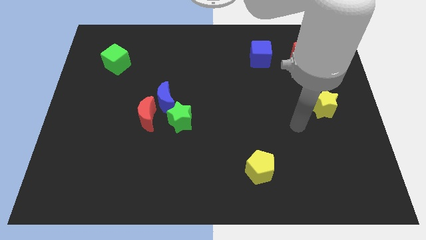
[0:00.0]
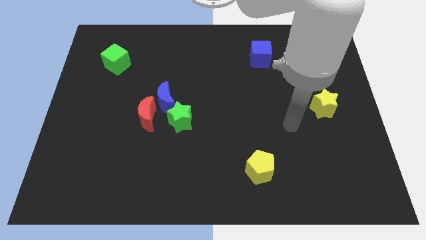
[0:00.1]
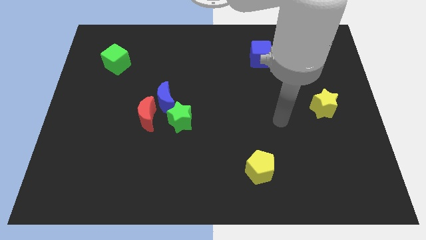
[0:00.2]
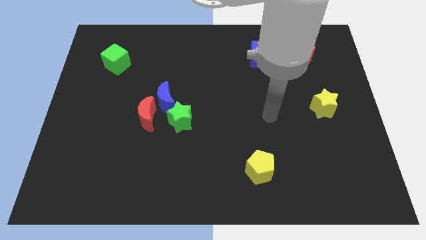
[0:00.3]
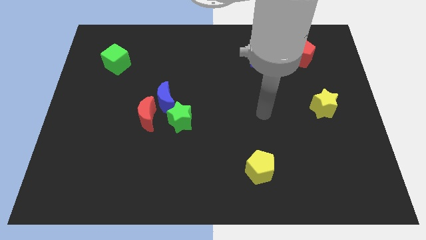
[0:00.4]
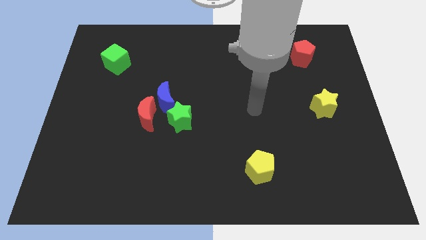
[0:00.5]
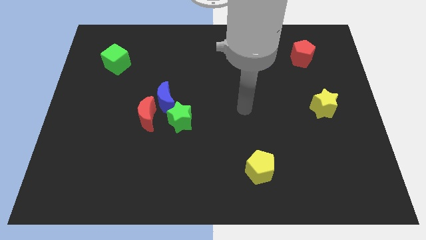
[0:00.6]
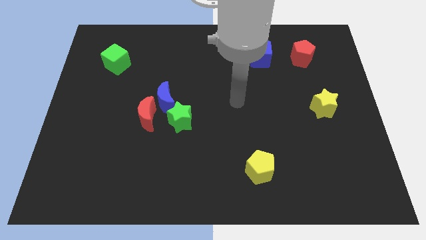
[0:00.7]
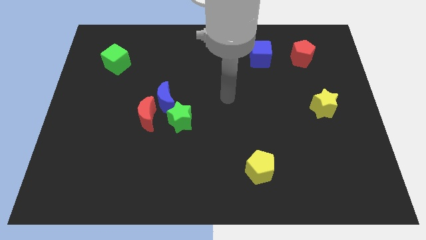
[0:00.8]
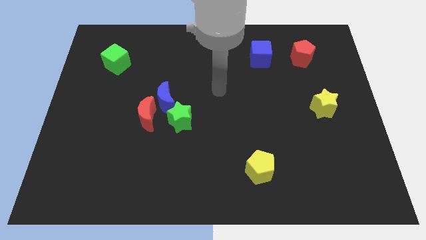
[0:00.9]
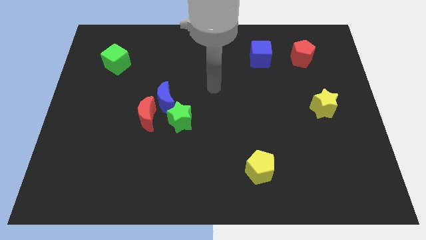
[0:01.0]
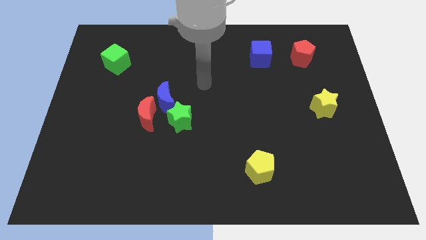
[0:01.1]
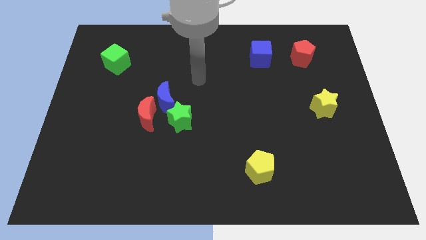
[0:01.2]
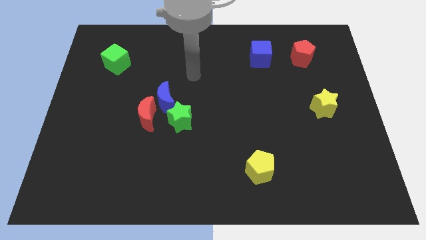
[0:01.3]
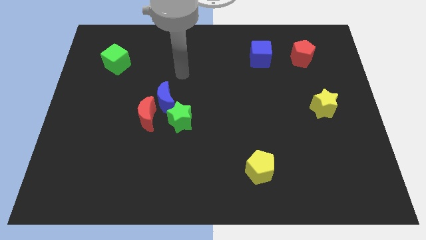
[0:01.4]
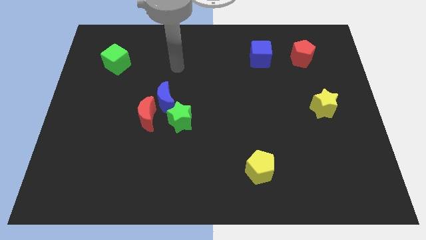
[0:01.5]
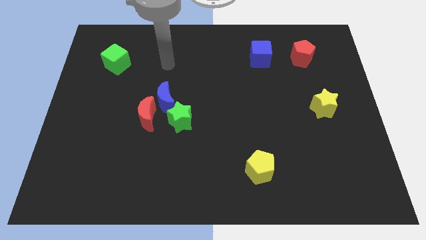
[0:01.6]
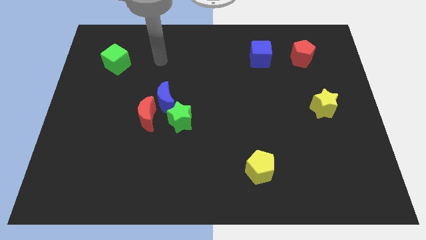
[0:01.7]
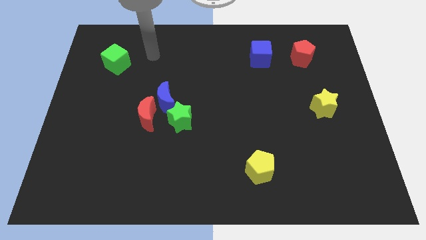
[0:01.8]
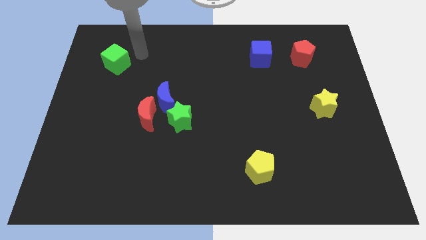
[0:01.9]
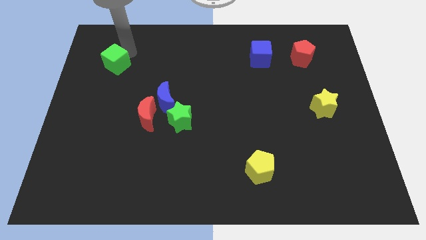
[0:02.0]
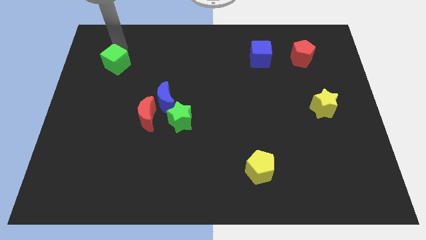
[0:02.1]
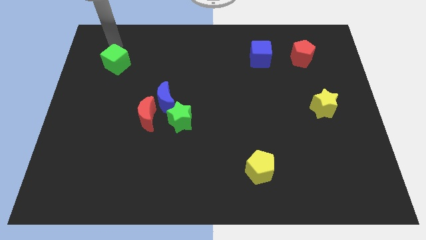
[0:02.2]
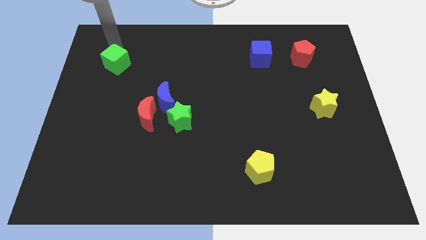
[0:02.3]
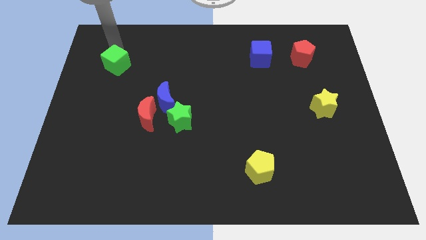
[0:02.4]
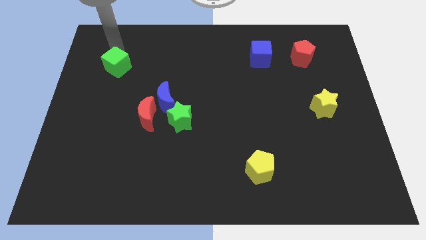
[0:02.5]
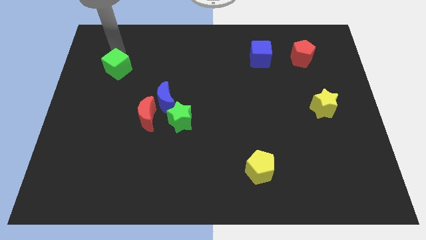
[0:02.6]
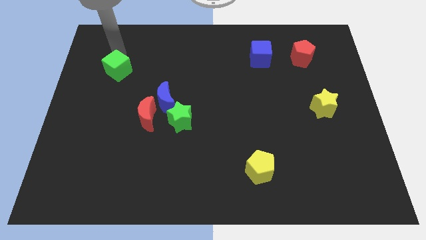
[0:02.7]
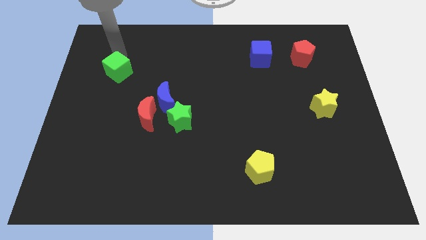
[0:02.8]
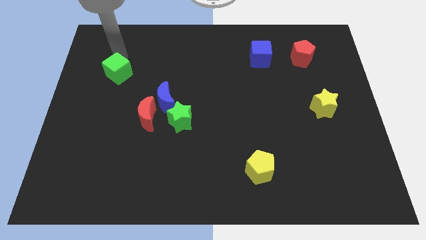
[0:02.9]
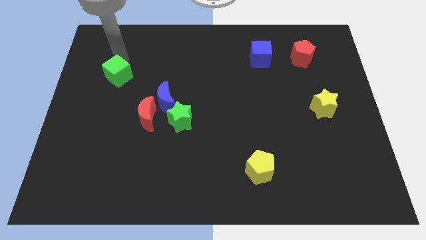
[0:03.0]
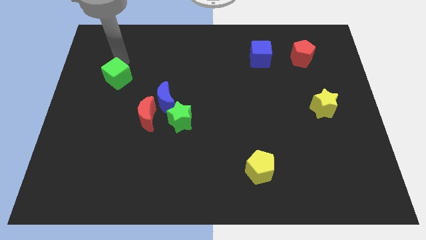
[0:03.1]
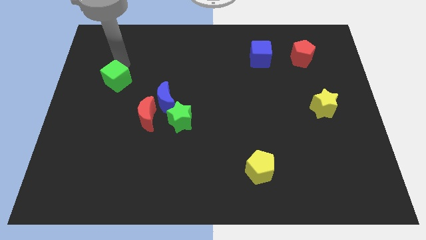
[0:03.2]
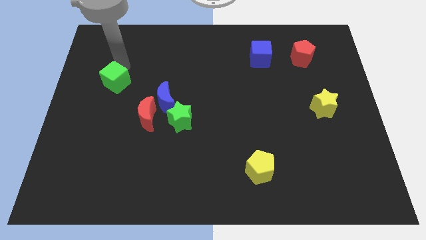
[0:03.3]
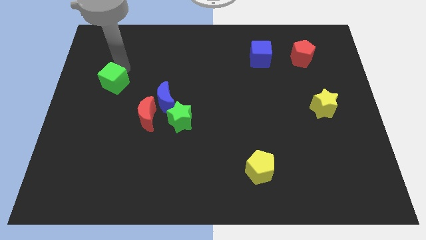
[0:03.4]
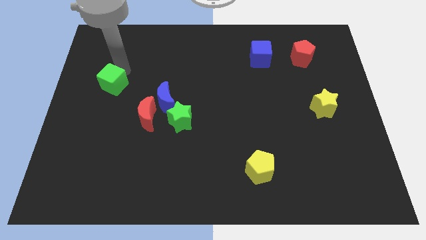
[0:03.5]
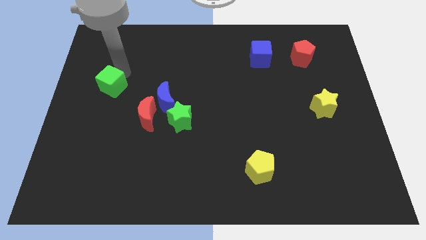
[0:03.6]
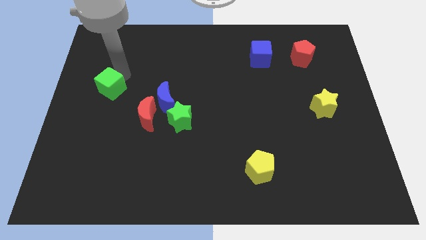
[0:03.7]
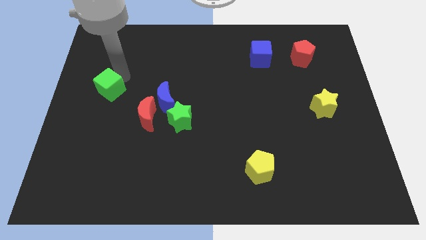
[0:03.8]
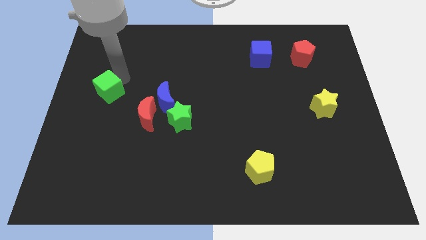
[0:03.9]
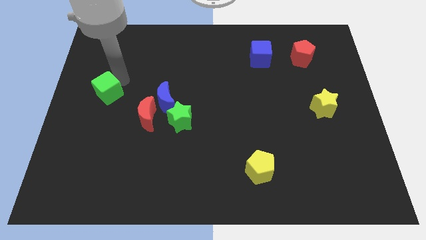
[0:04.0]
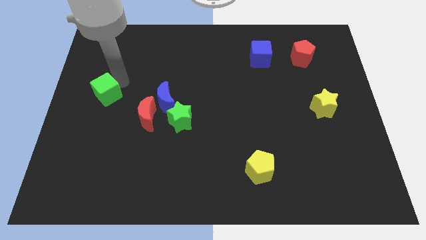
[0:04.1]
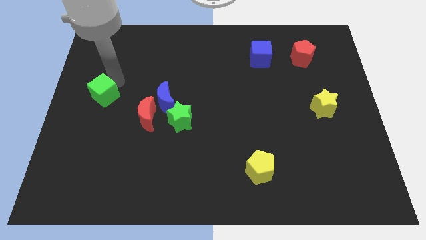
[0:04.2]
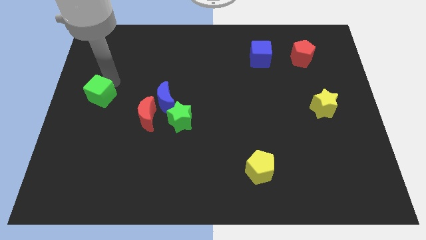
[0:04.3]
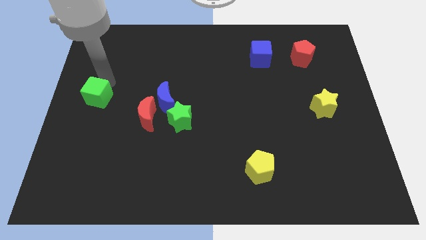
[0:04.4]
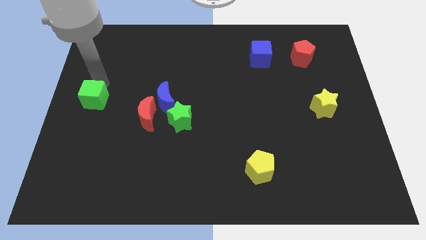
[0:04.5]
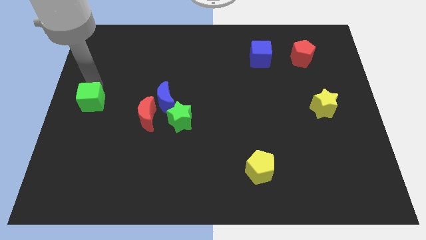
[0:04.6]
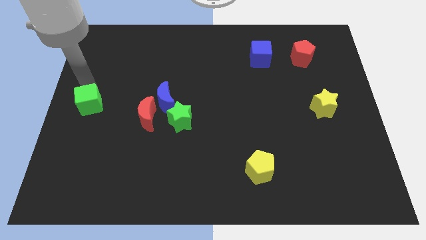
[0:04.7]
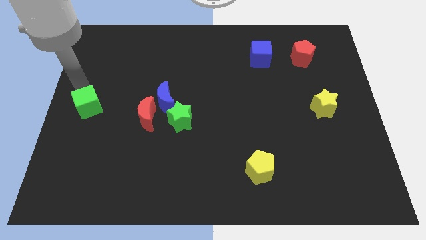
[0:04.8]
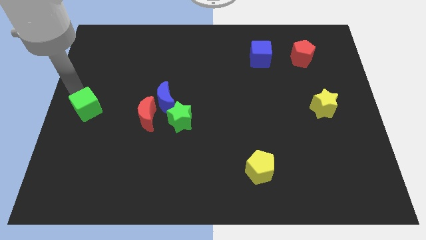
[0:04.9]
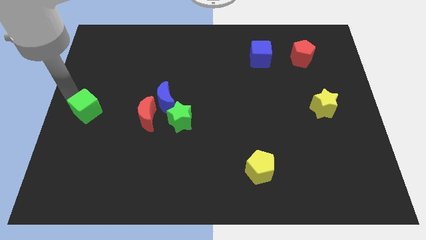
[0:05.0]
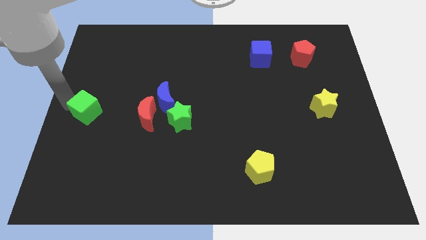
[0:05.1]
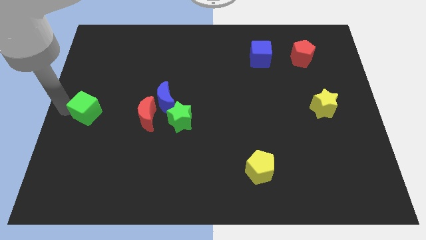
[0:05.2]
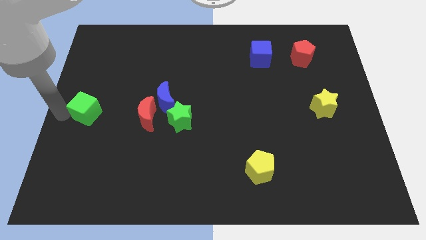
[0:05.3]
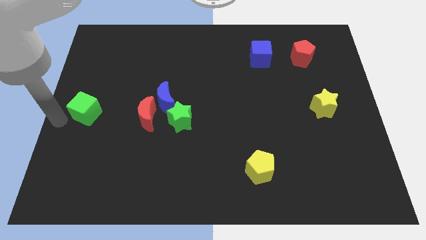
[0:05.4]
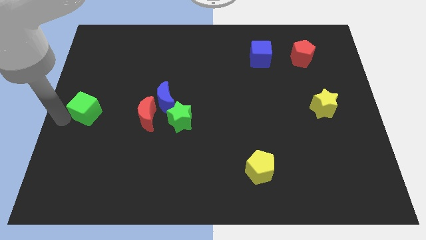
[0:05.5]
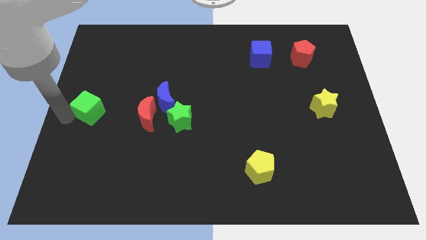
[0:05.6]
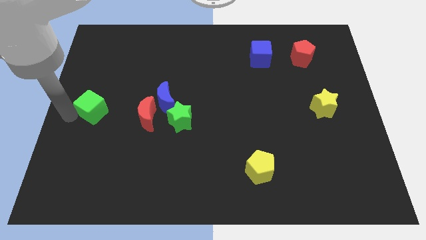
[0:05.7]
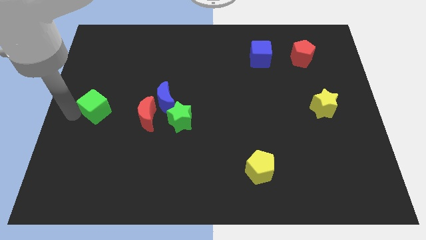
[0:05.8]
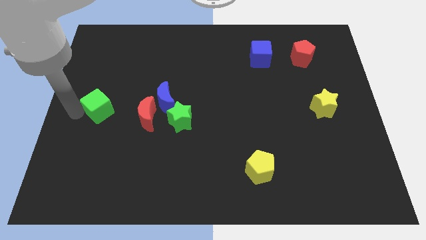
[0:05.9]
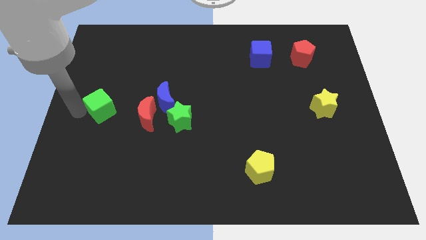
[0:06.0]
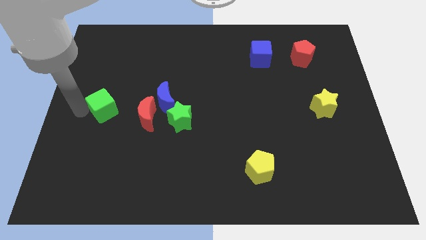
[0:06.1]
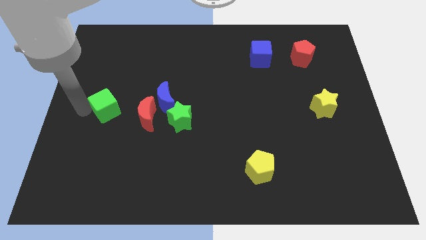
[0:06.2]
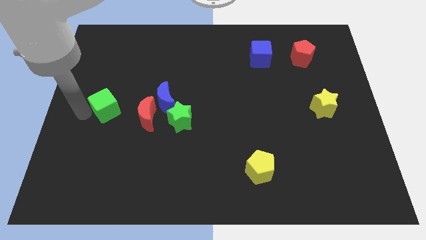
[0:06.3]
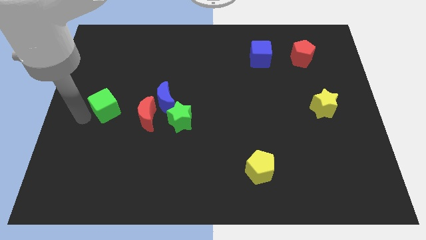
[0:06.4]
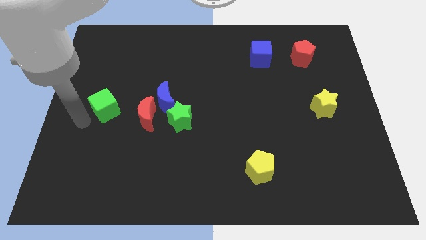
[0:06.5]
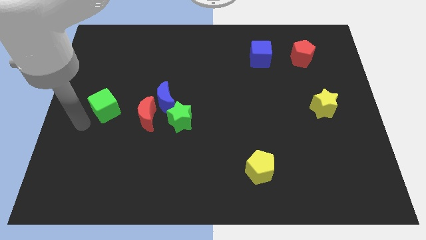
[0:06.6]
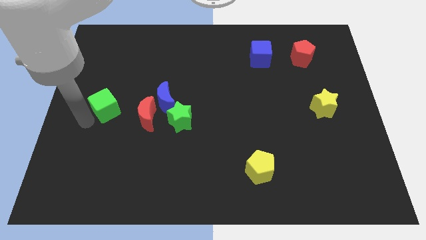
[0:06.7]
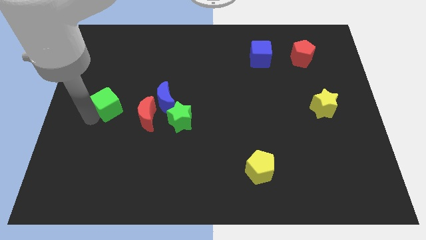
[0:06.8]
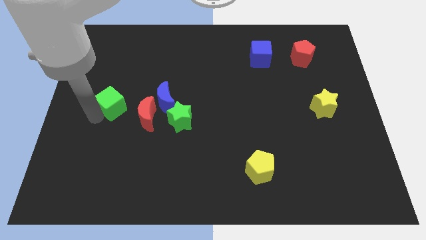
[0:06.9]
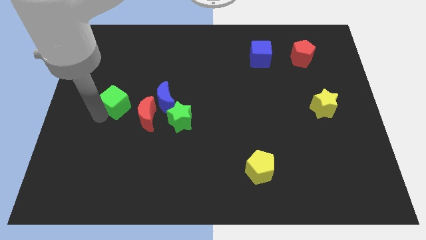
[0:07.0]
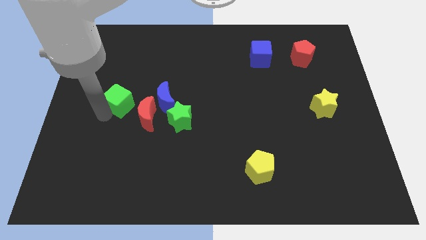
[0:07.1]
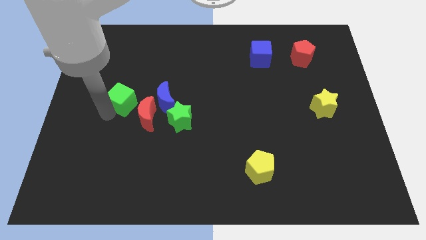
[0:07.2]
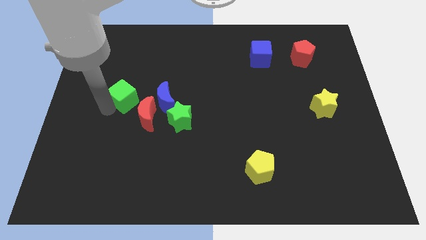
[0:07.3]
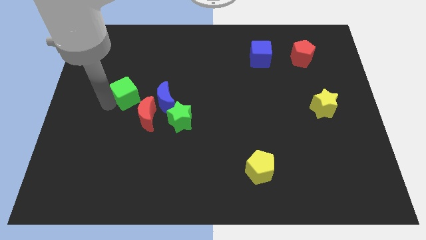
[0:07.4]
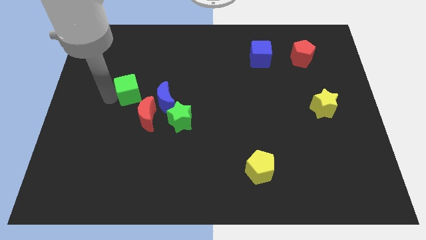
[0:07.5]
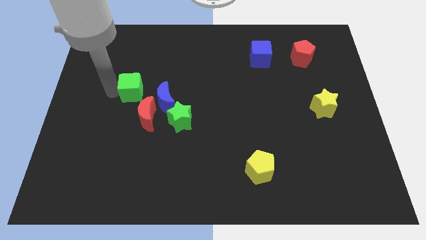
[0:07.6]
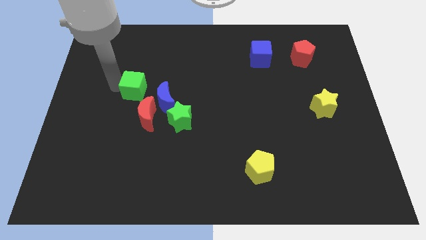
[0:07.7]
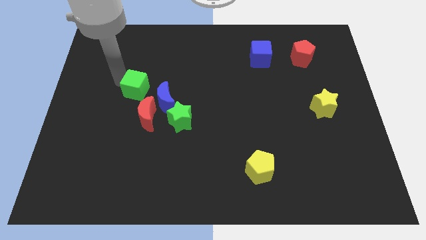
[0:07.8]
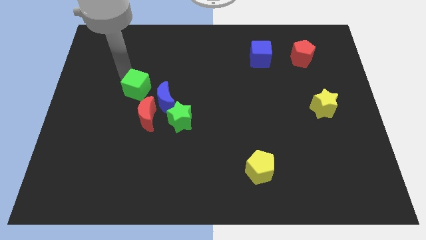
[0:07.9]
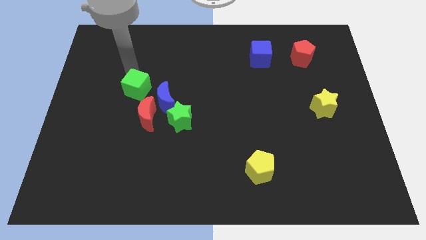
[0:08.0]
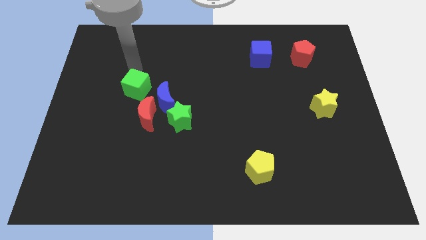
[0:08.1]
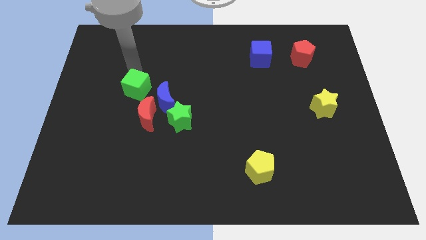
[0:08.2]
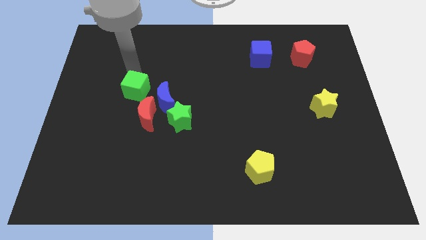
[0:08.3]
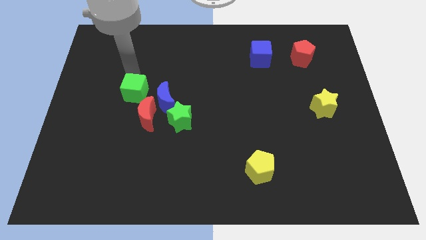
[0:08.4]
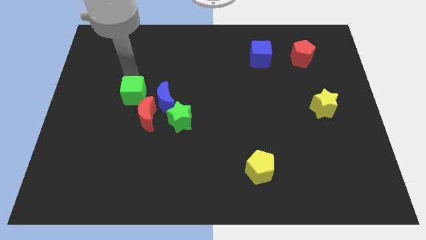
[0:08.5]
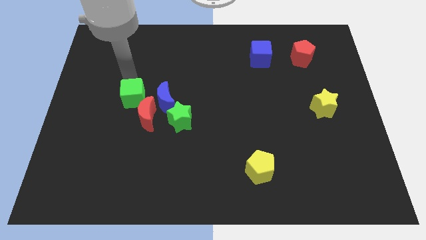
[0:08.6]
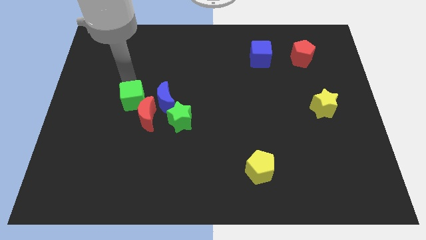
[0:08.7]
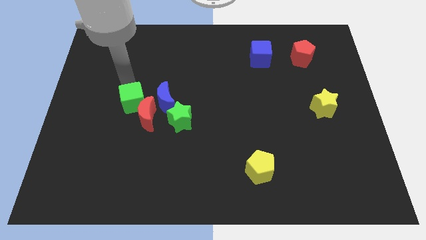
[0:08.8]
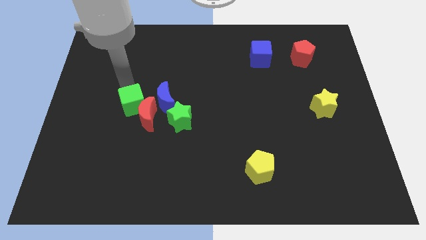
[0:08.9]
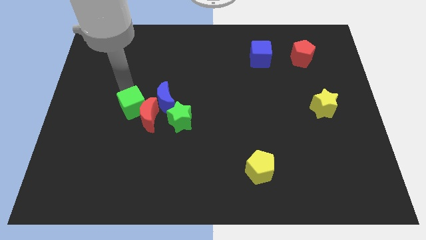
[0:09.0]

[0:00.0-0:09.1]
slide the green cube to the bottom left of the blue moon
